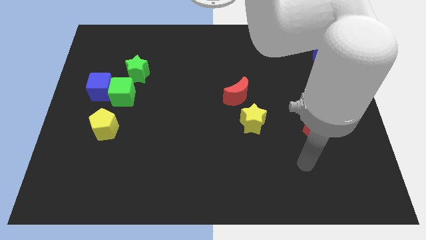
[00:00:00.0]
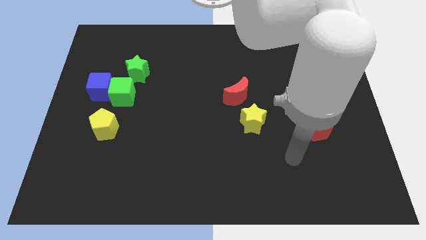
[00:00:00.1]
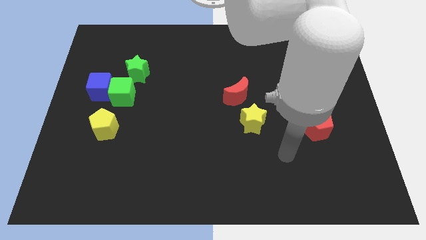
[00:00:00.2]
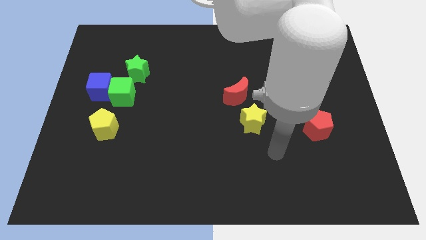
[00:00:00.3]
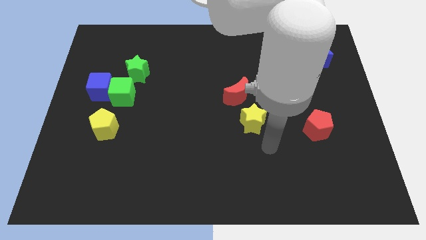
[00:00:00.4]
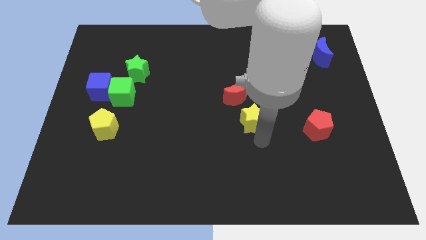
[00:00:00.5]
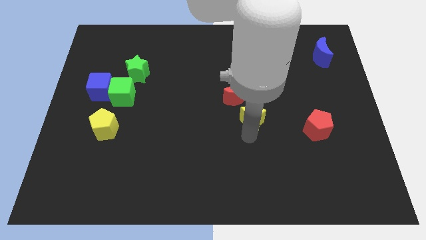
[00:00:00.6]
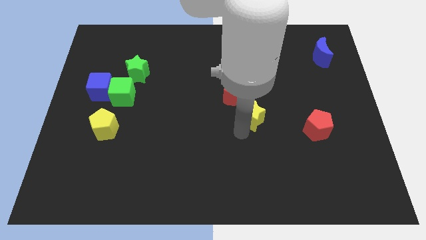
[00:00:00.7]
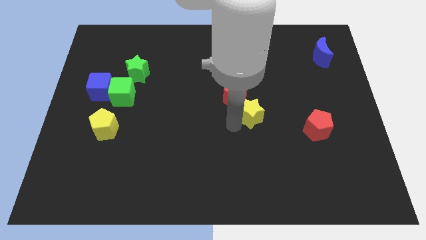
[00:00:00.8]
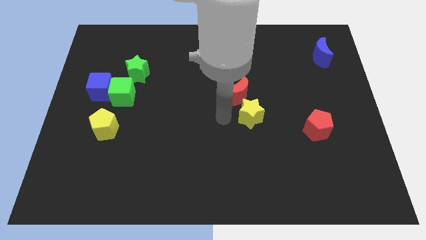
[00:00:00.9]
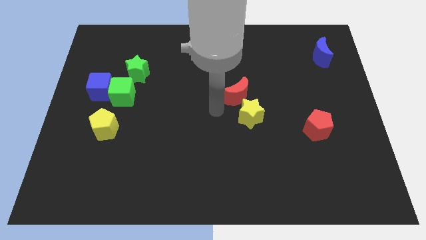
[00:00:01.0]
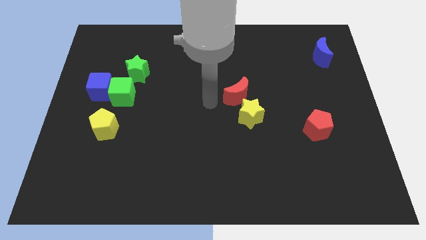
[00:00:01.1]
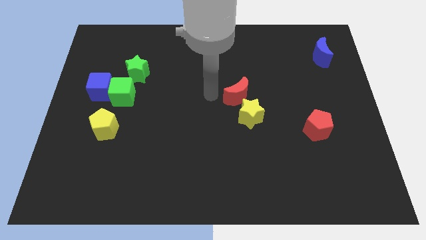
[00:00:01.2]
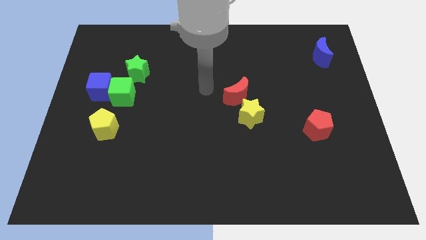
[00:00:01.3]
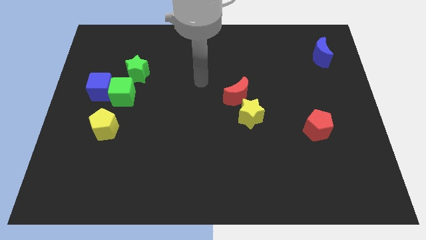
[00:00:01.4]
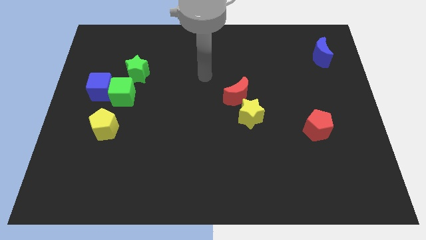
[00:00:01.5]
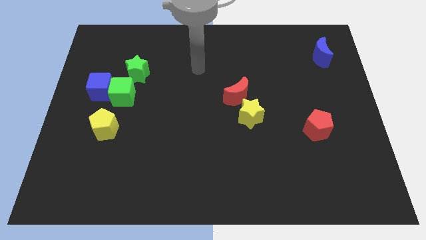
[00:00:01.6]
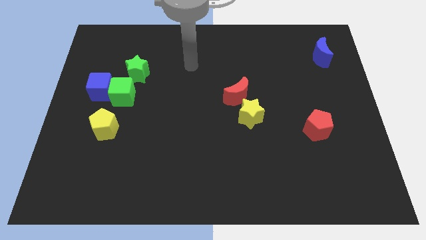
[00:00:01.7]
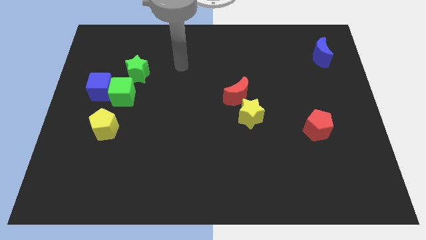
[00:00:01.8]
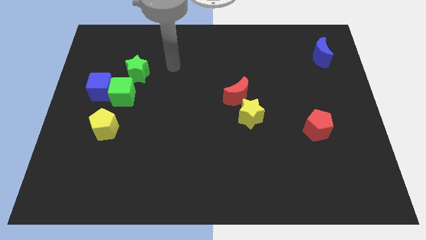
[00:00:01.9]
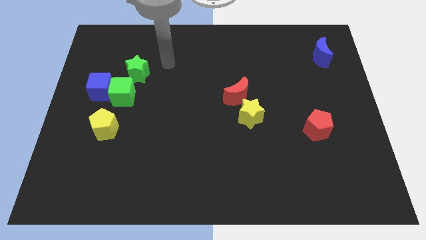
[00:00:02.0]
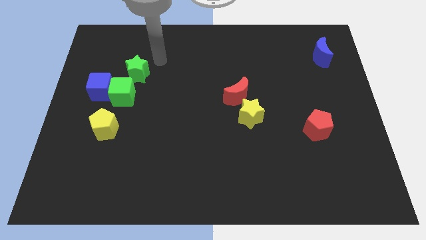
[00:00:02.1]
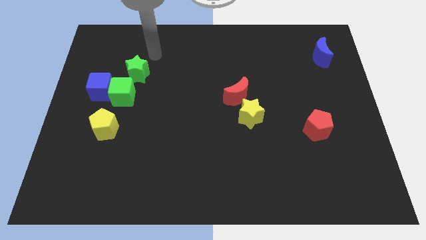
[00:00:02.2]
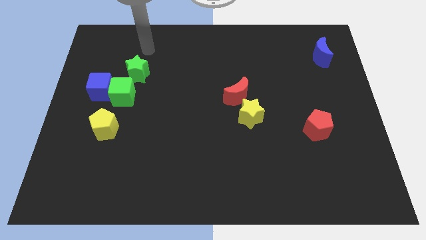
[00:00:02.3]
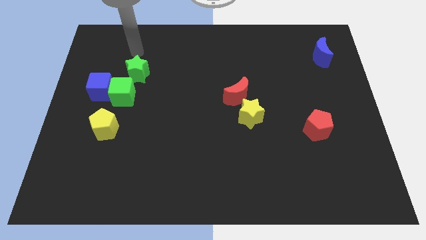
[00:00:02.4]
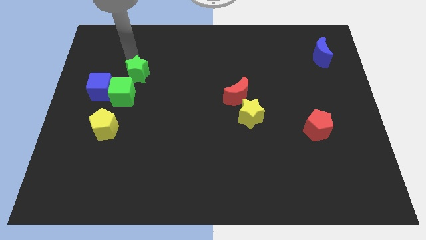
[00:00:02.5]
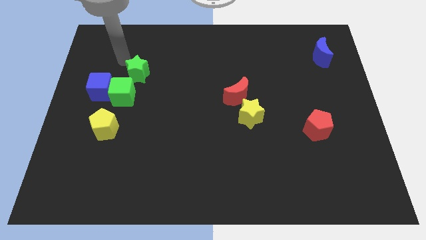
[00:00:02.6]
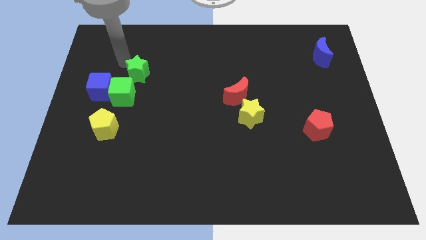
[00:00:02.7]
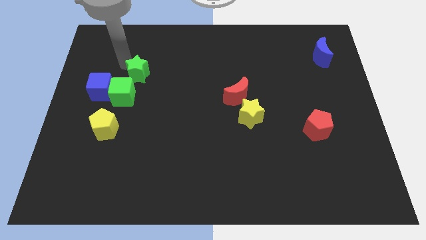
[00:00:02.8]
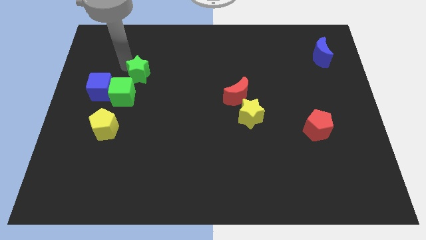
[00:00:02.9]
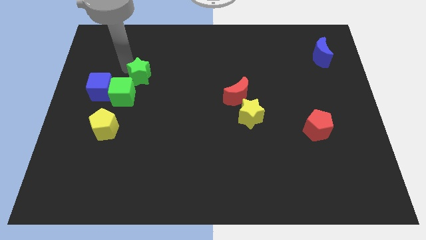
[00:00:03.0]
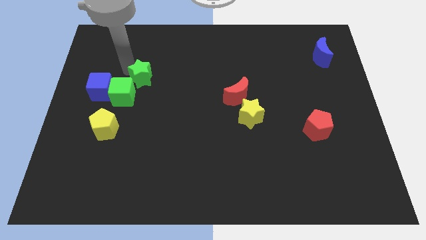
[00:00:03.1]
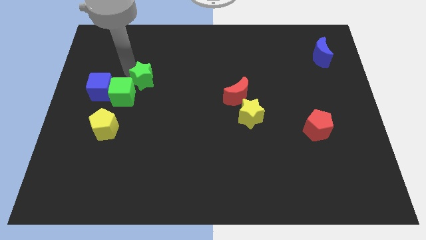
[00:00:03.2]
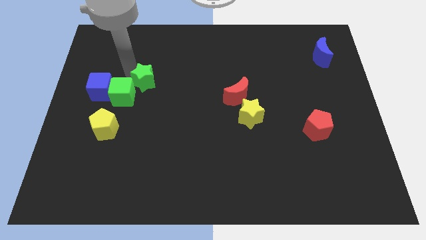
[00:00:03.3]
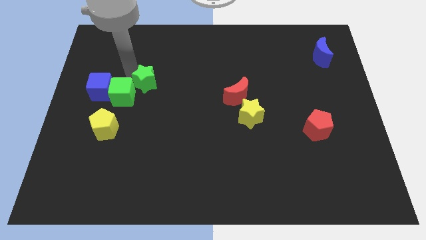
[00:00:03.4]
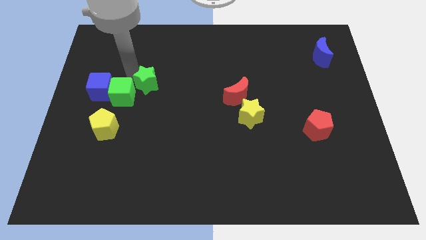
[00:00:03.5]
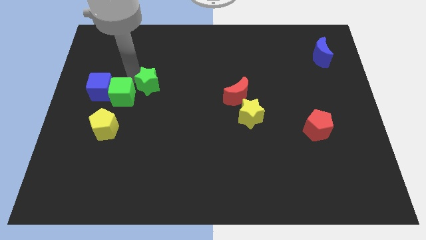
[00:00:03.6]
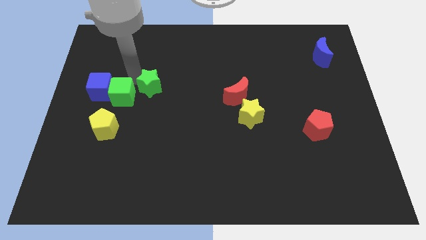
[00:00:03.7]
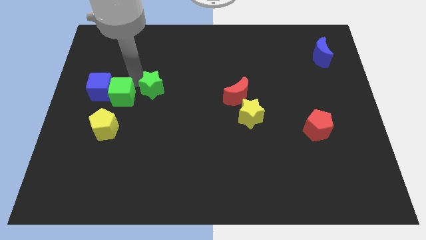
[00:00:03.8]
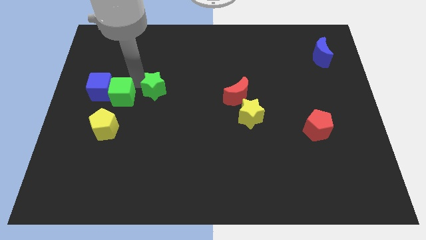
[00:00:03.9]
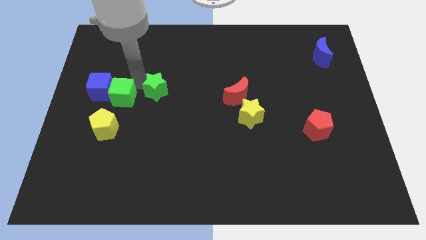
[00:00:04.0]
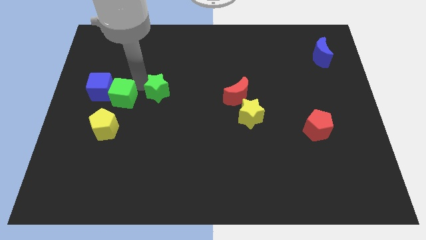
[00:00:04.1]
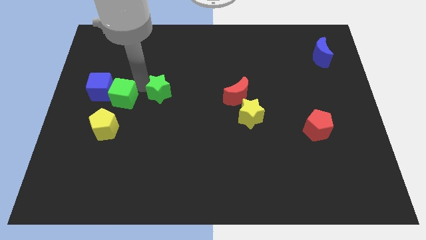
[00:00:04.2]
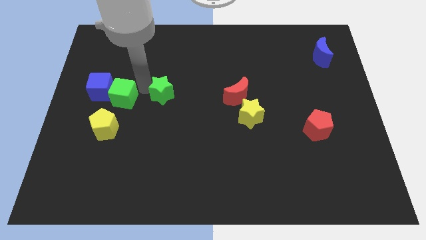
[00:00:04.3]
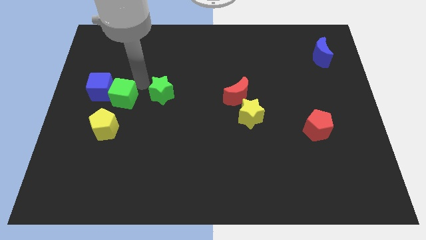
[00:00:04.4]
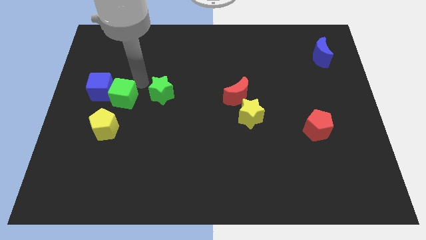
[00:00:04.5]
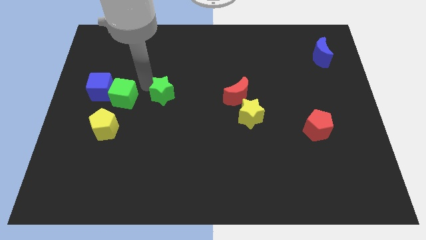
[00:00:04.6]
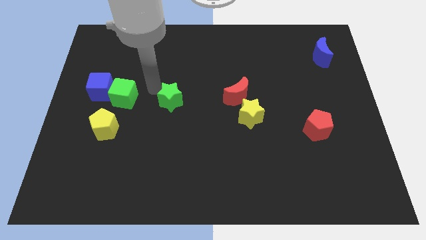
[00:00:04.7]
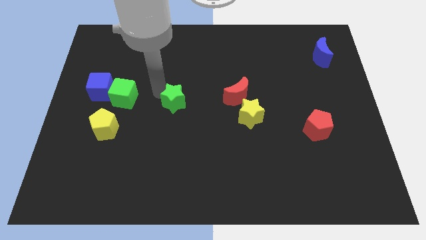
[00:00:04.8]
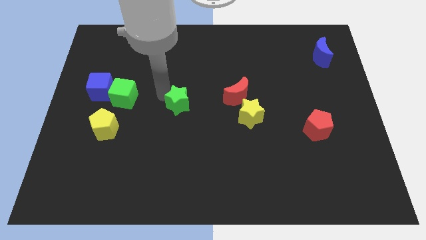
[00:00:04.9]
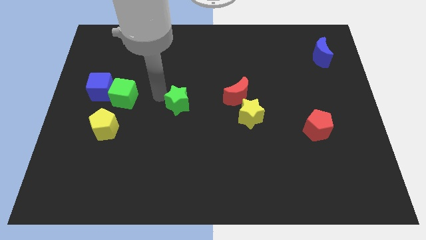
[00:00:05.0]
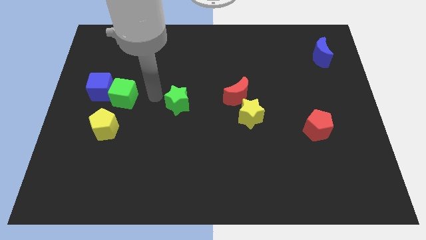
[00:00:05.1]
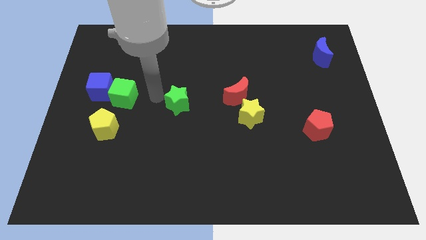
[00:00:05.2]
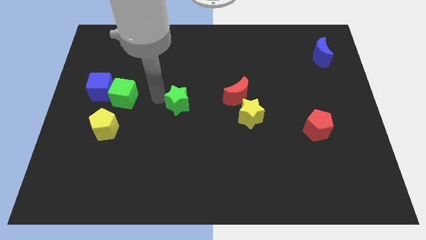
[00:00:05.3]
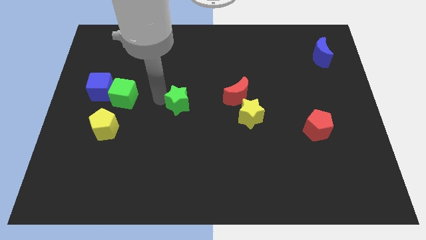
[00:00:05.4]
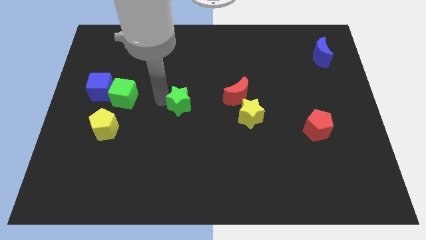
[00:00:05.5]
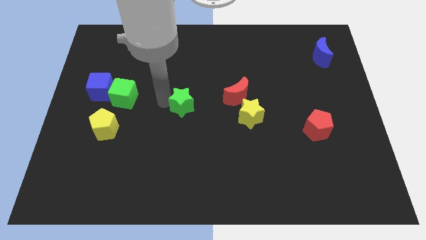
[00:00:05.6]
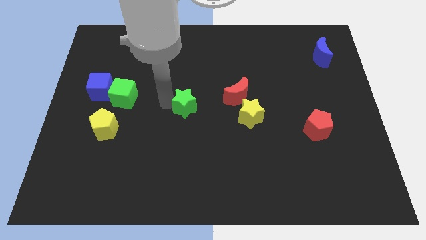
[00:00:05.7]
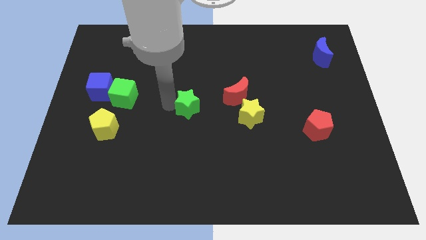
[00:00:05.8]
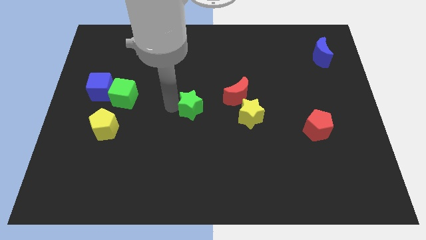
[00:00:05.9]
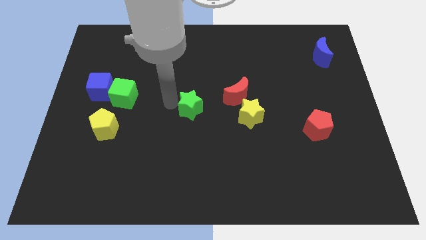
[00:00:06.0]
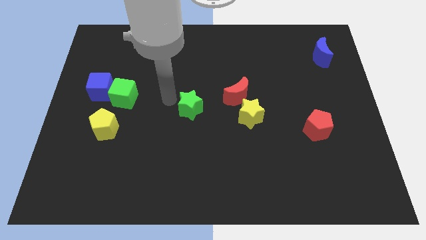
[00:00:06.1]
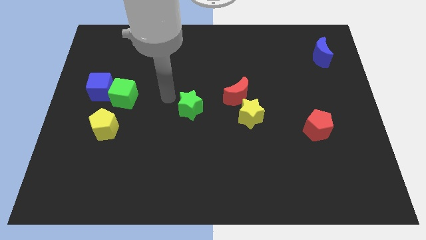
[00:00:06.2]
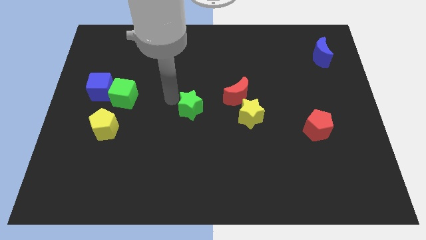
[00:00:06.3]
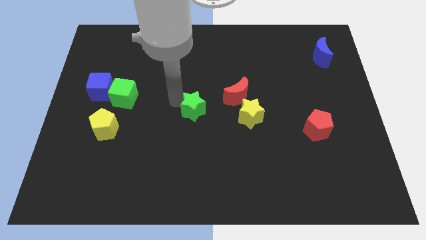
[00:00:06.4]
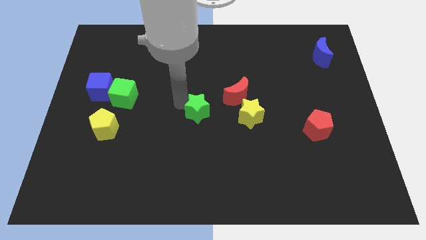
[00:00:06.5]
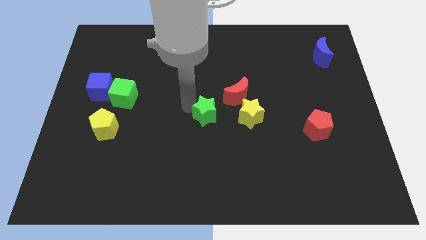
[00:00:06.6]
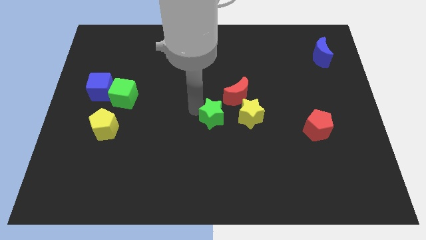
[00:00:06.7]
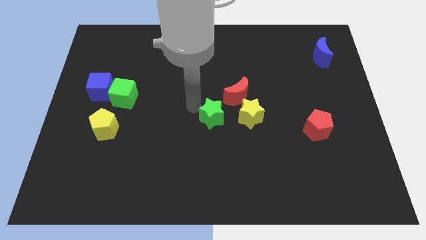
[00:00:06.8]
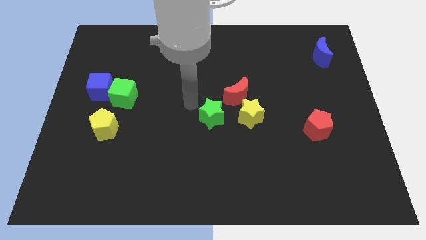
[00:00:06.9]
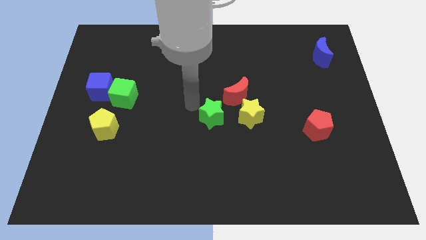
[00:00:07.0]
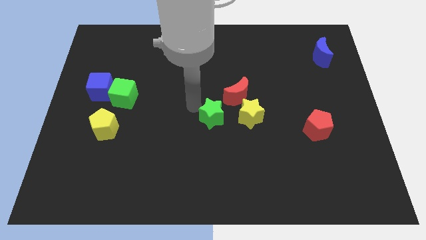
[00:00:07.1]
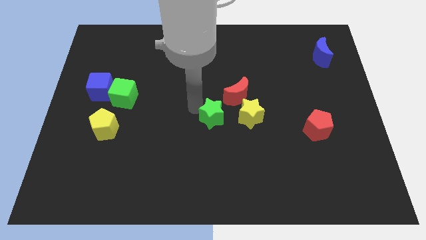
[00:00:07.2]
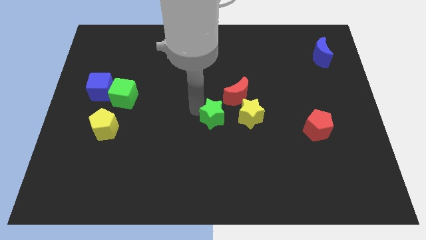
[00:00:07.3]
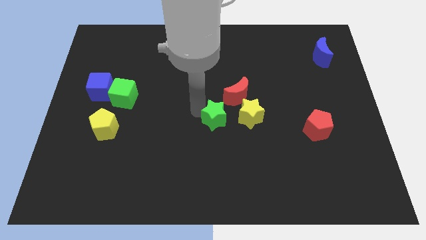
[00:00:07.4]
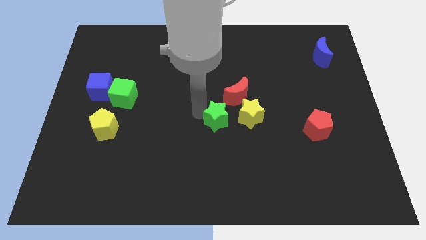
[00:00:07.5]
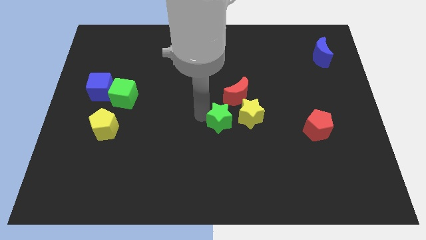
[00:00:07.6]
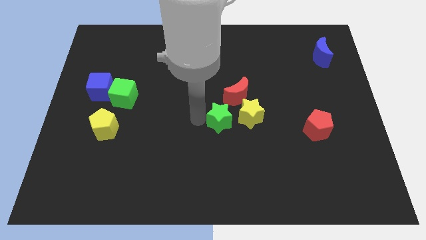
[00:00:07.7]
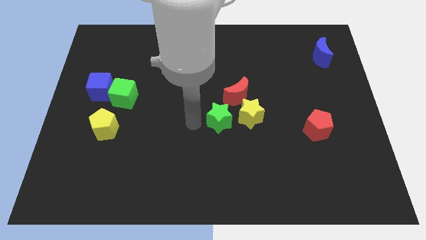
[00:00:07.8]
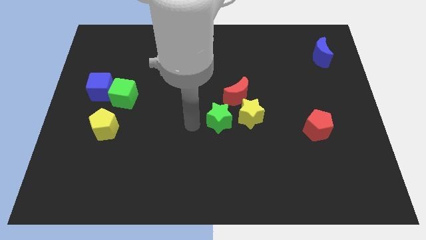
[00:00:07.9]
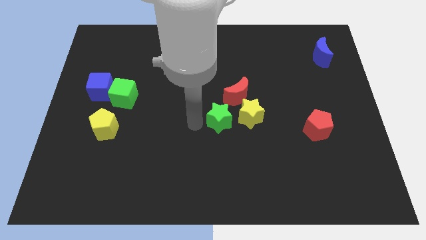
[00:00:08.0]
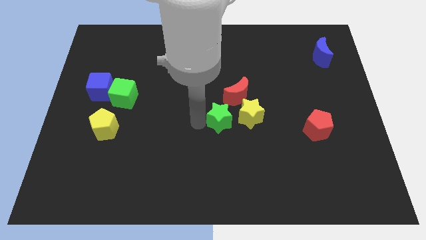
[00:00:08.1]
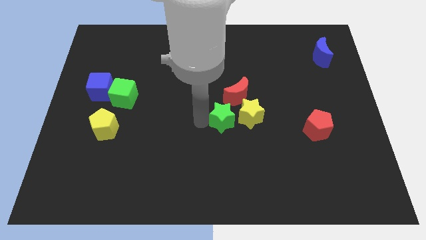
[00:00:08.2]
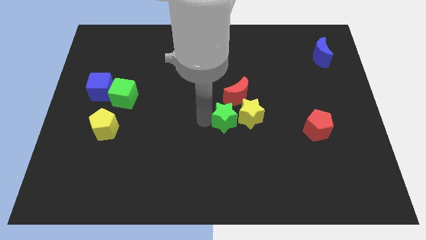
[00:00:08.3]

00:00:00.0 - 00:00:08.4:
put the green star close to the yellow star
